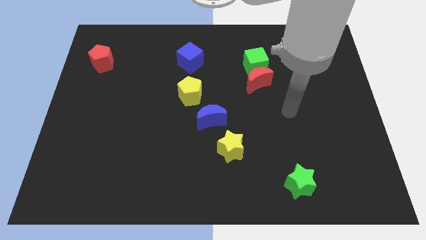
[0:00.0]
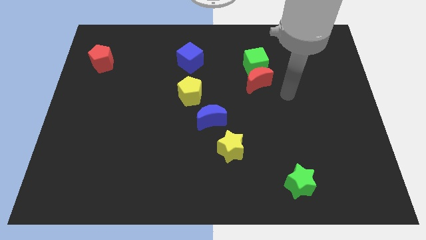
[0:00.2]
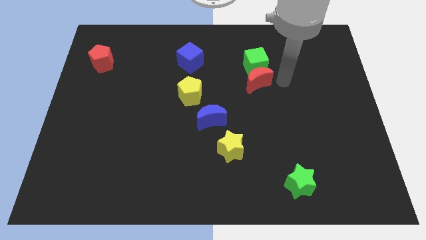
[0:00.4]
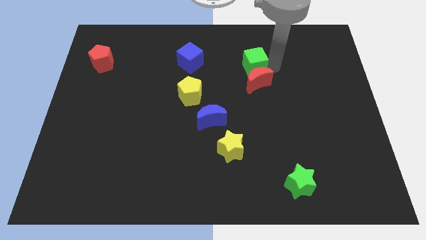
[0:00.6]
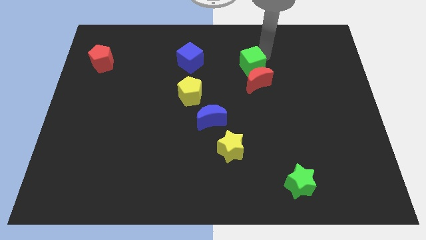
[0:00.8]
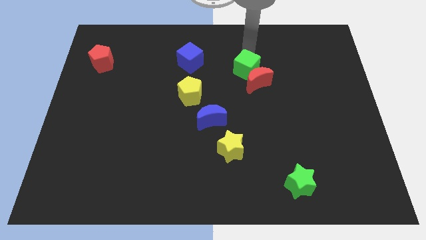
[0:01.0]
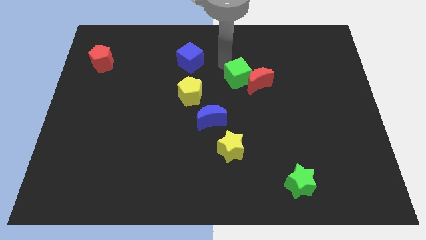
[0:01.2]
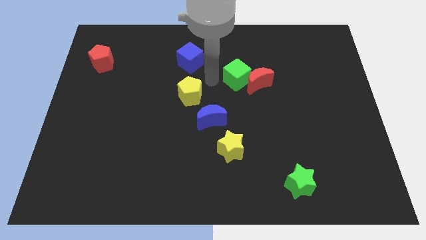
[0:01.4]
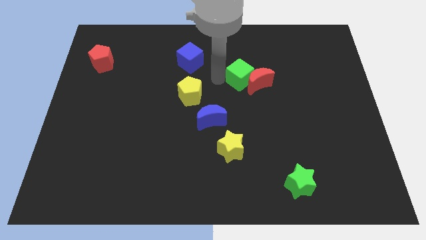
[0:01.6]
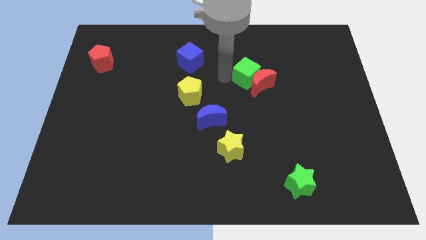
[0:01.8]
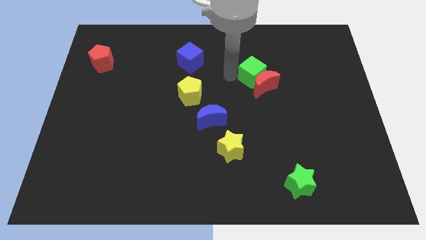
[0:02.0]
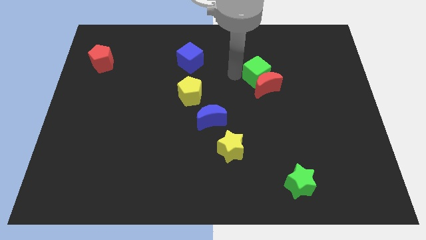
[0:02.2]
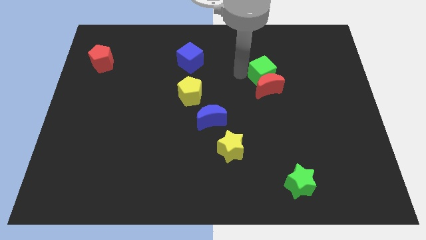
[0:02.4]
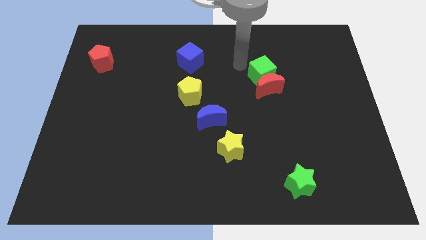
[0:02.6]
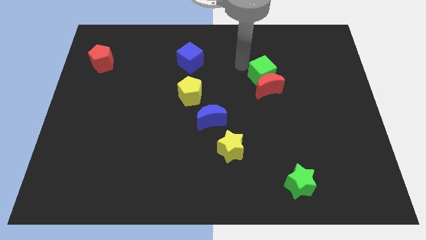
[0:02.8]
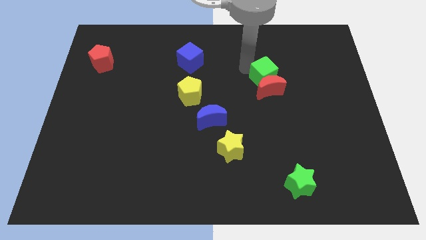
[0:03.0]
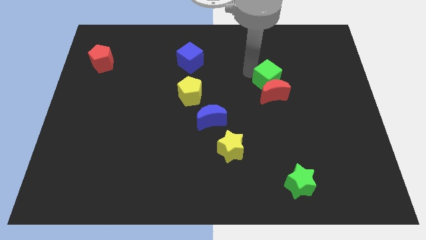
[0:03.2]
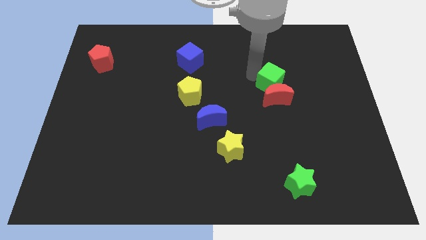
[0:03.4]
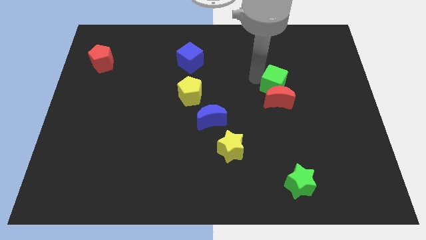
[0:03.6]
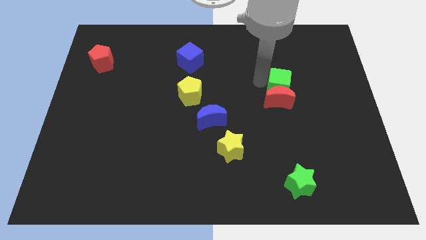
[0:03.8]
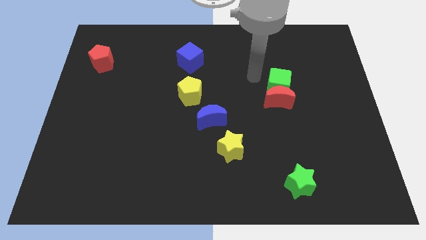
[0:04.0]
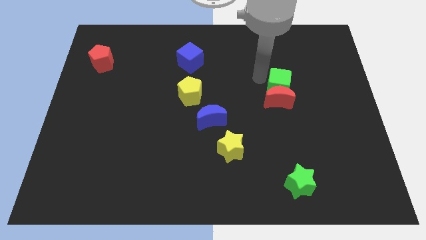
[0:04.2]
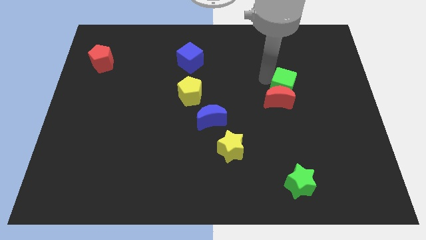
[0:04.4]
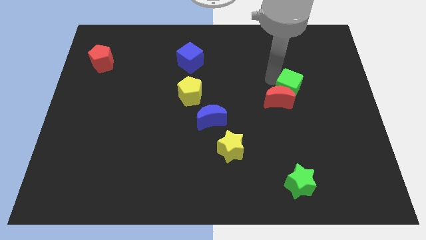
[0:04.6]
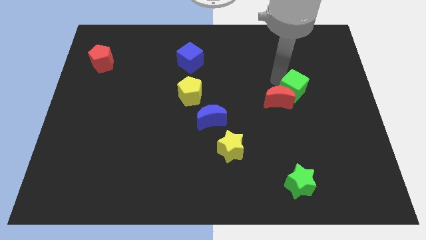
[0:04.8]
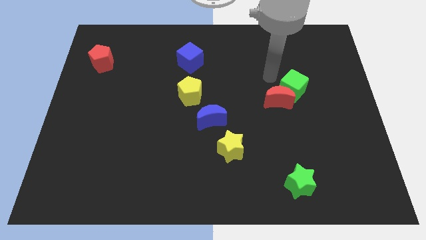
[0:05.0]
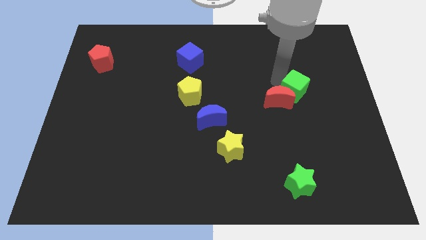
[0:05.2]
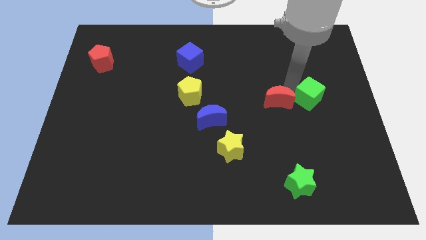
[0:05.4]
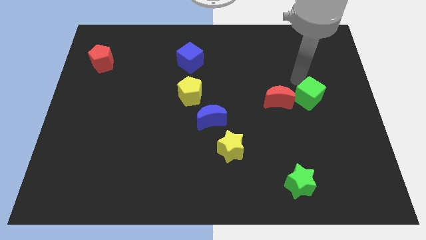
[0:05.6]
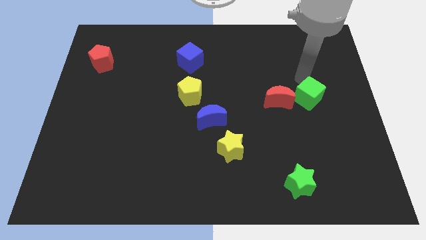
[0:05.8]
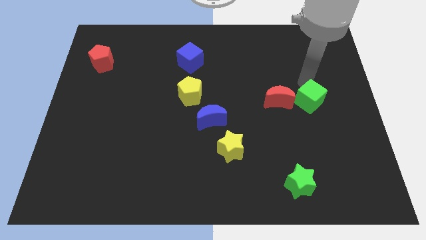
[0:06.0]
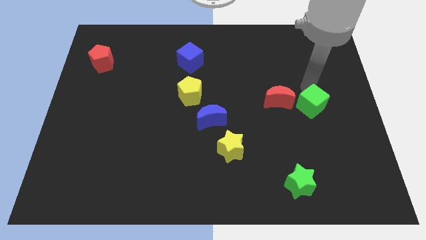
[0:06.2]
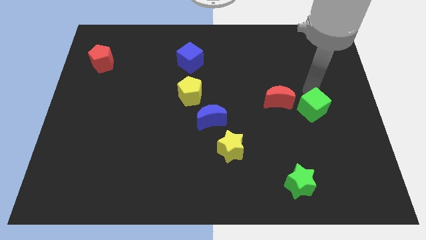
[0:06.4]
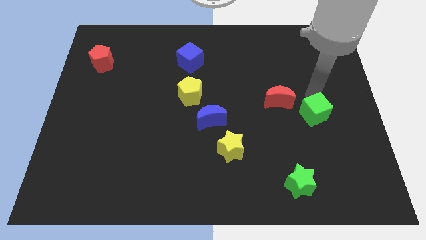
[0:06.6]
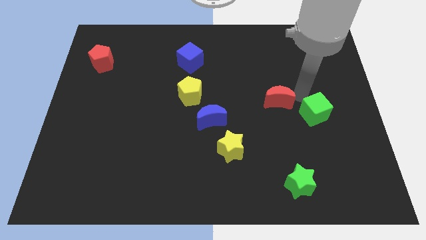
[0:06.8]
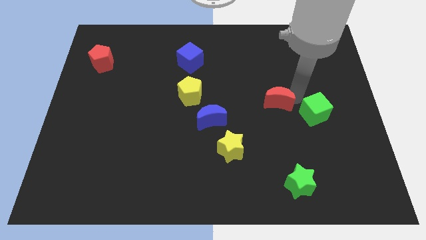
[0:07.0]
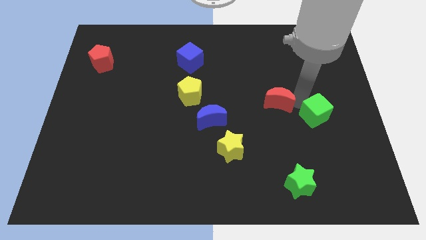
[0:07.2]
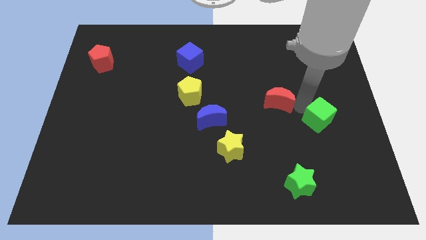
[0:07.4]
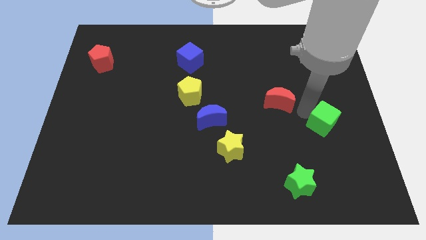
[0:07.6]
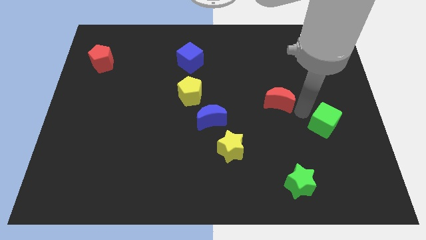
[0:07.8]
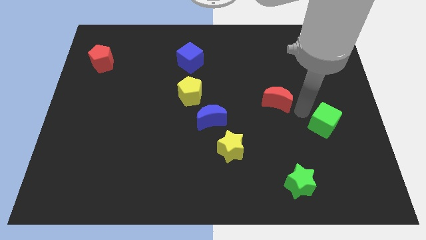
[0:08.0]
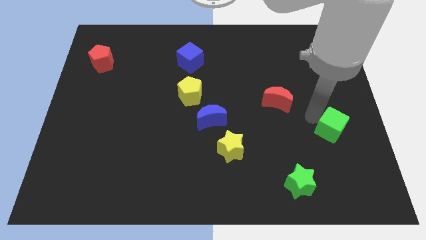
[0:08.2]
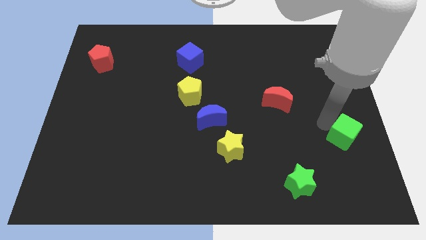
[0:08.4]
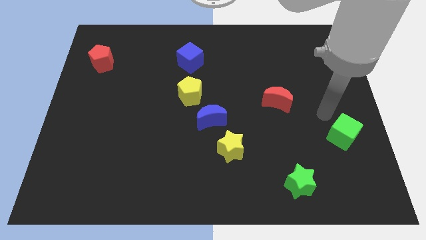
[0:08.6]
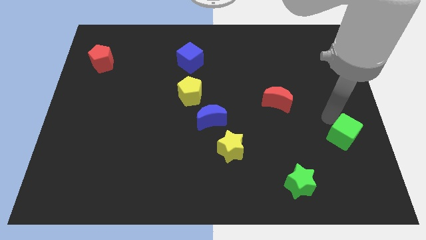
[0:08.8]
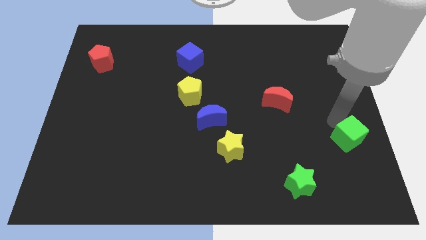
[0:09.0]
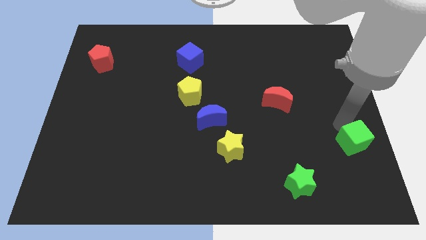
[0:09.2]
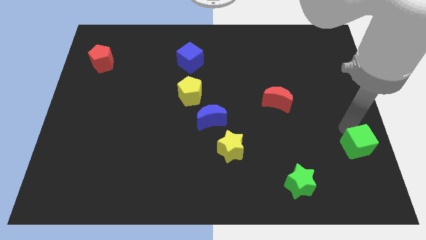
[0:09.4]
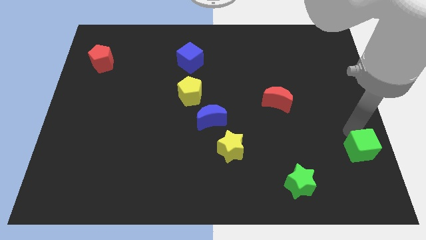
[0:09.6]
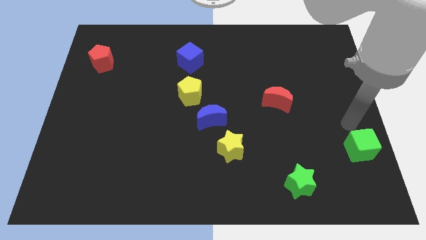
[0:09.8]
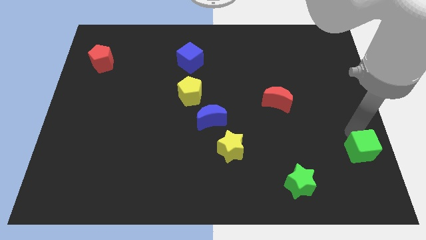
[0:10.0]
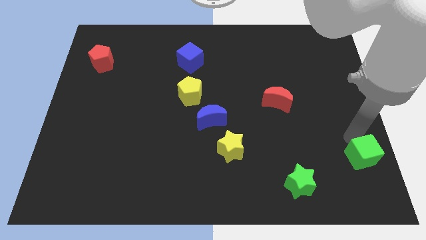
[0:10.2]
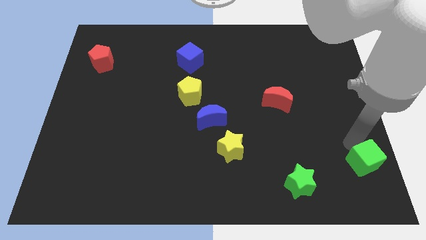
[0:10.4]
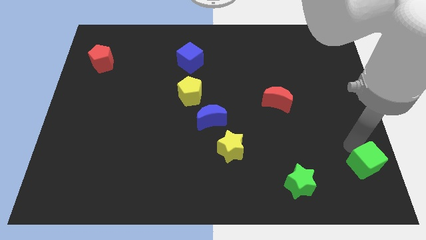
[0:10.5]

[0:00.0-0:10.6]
push the green cube to the bottom right corner

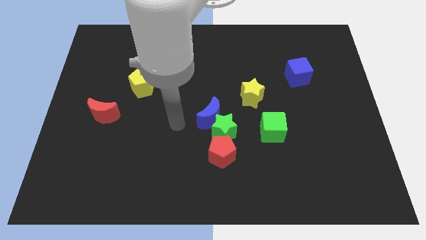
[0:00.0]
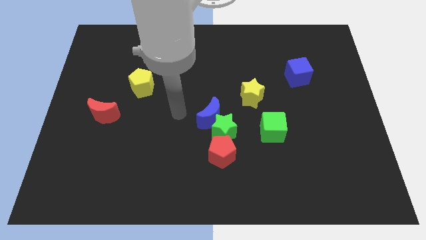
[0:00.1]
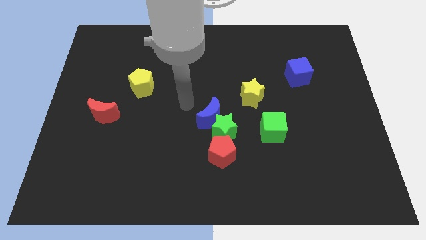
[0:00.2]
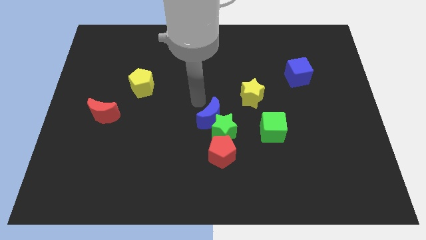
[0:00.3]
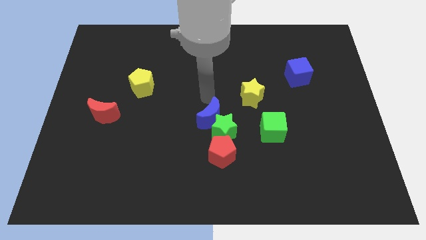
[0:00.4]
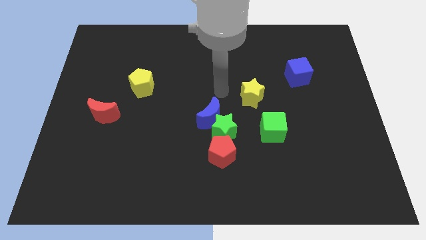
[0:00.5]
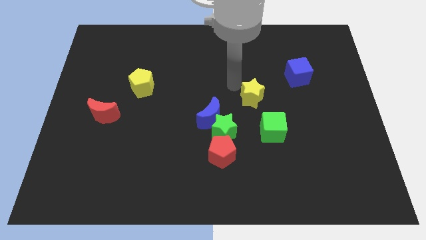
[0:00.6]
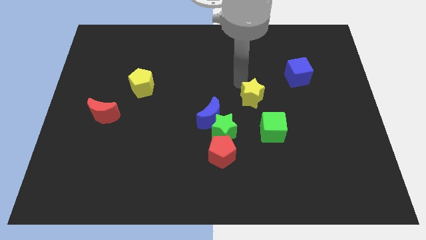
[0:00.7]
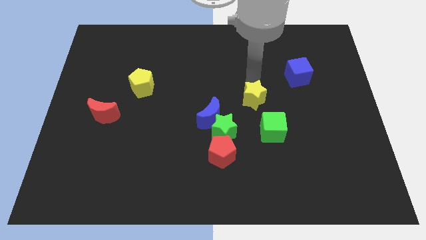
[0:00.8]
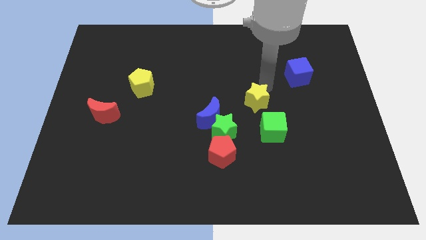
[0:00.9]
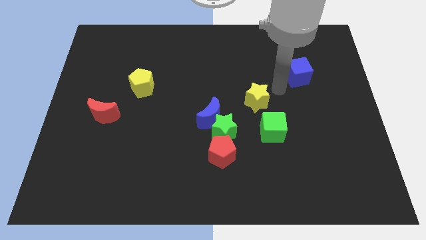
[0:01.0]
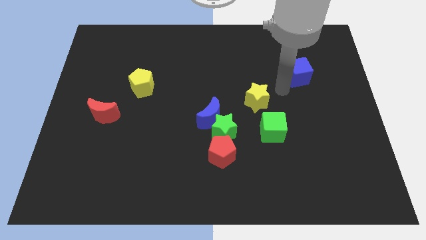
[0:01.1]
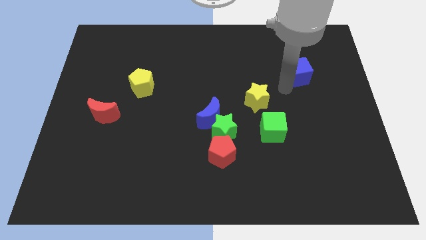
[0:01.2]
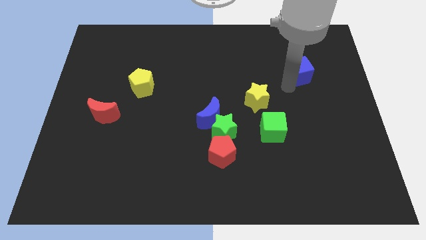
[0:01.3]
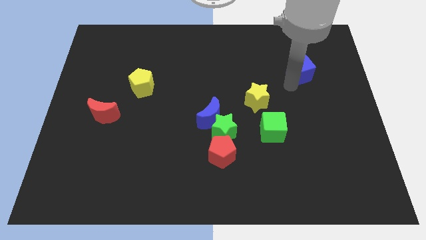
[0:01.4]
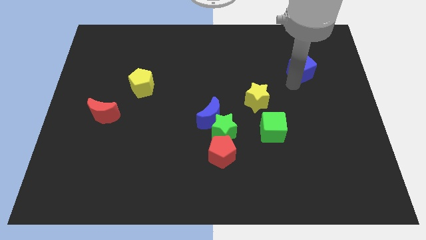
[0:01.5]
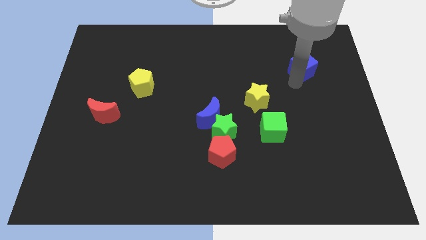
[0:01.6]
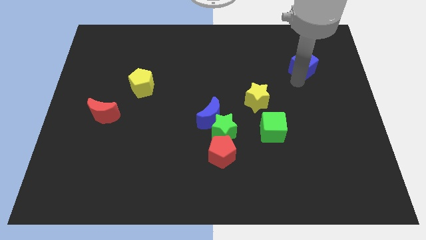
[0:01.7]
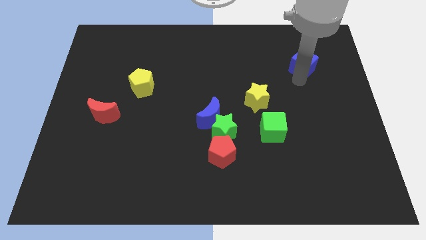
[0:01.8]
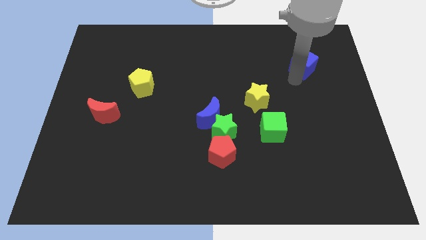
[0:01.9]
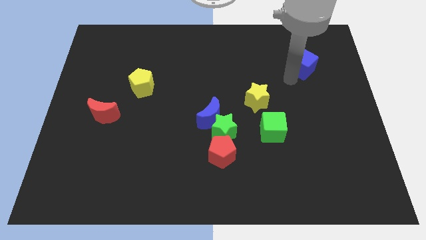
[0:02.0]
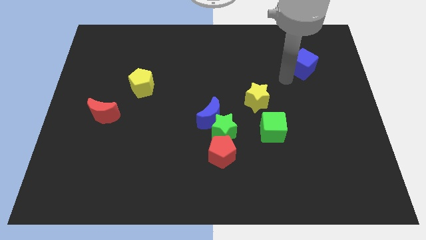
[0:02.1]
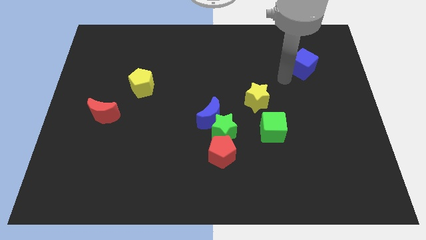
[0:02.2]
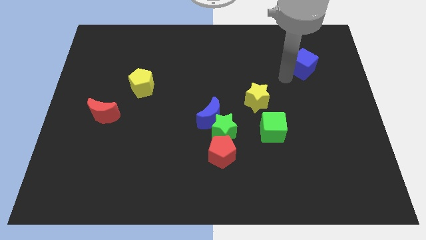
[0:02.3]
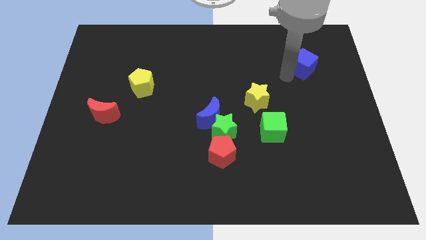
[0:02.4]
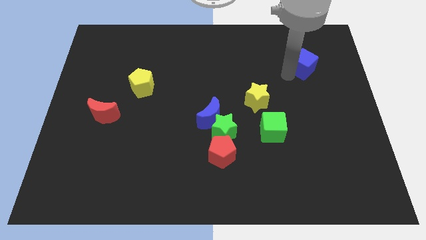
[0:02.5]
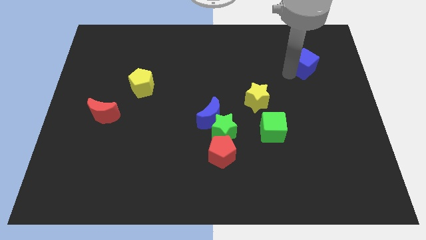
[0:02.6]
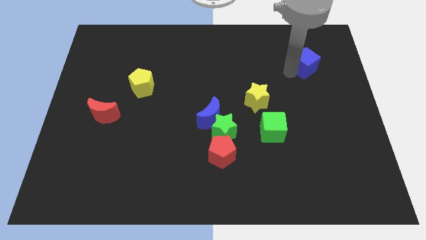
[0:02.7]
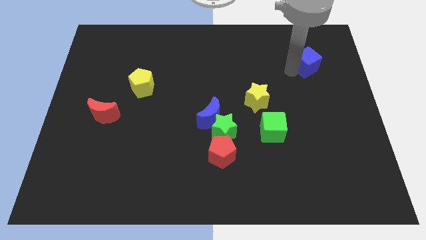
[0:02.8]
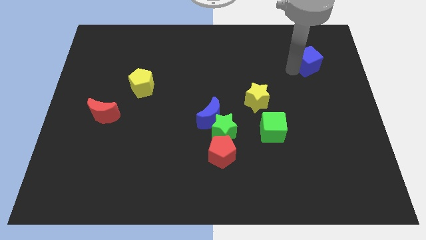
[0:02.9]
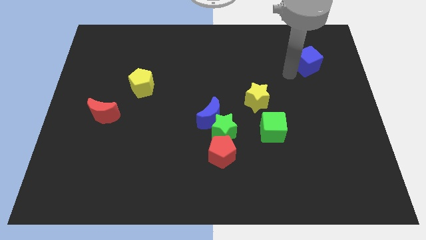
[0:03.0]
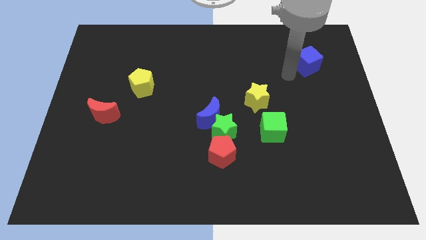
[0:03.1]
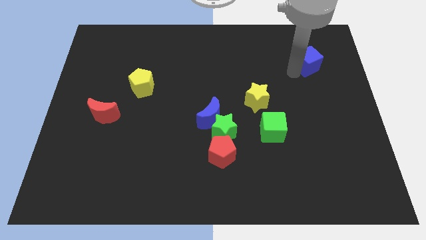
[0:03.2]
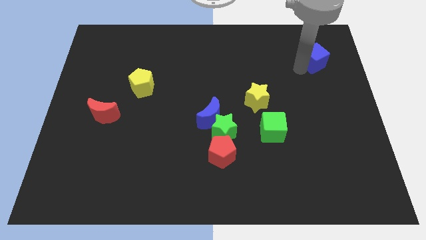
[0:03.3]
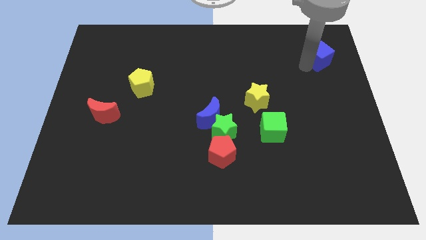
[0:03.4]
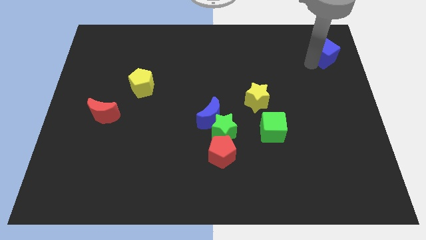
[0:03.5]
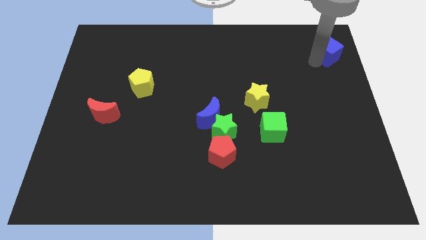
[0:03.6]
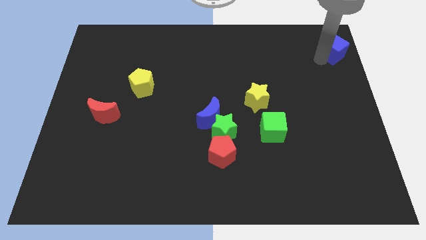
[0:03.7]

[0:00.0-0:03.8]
move the blue cube to the top right of the board
